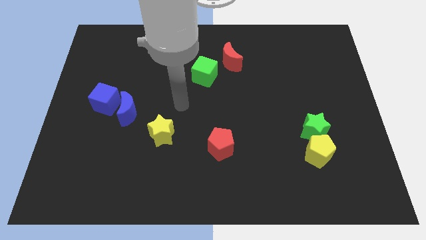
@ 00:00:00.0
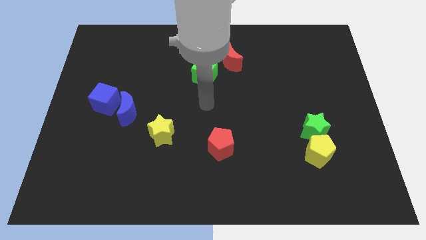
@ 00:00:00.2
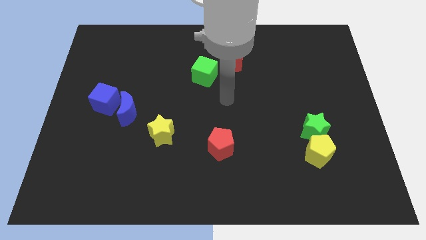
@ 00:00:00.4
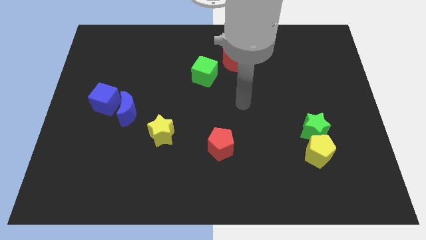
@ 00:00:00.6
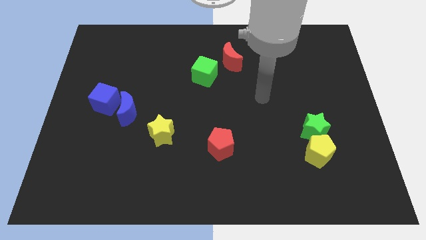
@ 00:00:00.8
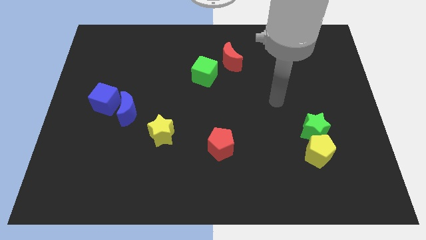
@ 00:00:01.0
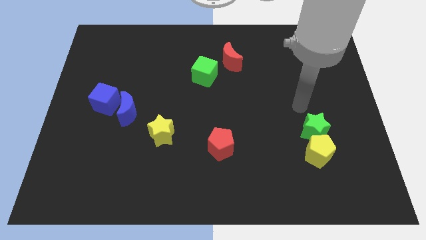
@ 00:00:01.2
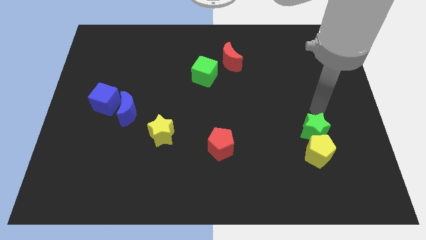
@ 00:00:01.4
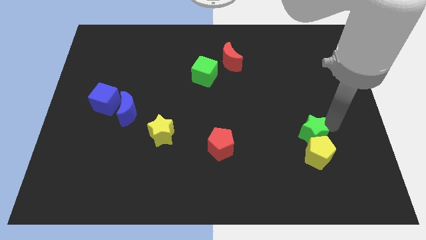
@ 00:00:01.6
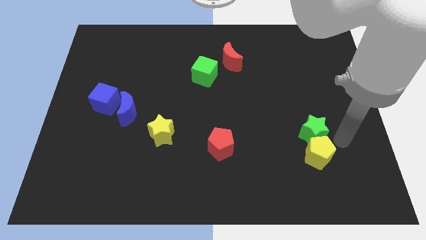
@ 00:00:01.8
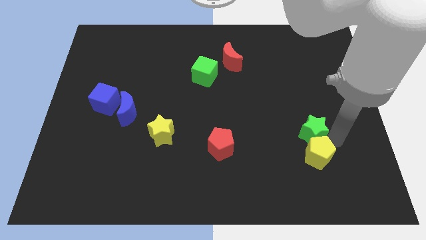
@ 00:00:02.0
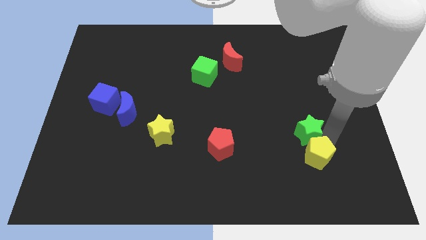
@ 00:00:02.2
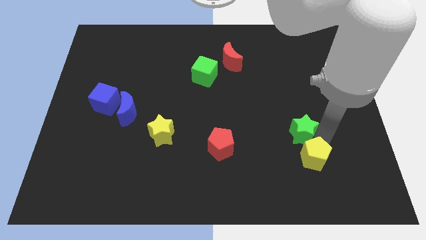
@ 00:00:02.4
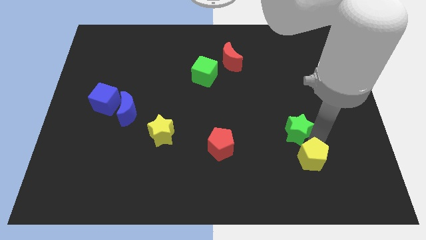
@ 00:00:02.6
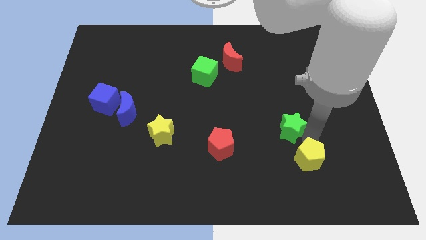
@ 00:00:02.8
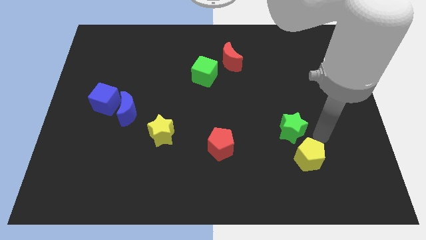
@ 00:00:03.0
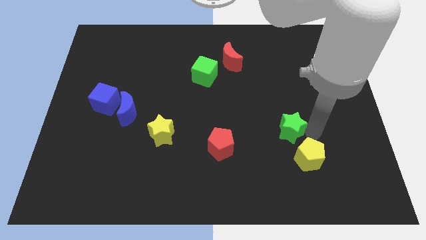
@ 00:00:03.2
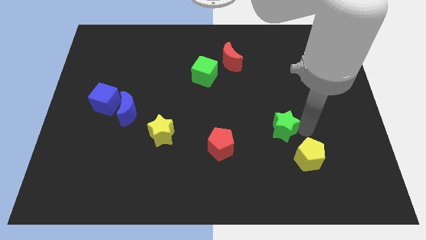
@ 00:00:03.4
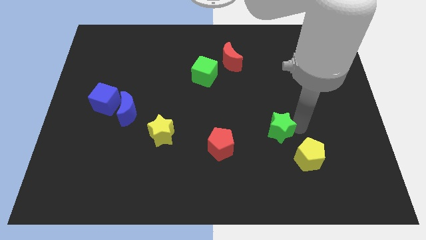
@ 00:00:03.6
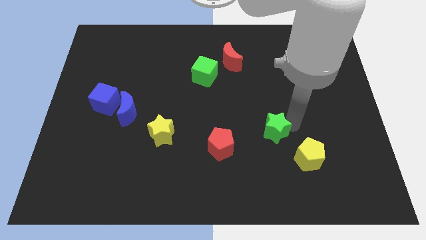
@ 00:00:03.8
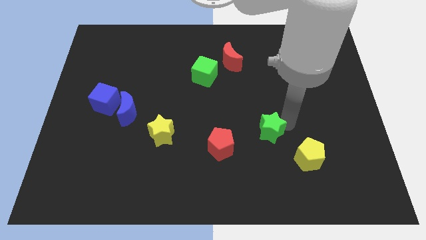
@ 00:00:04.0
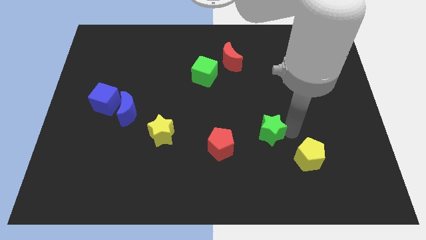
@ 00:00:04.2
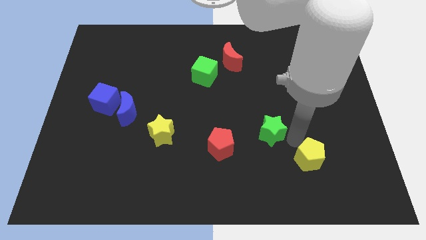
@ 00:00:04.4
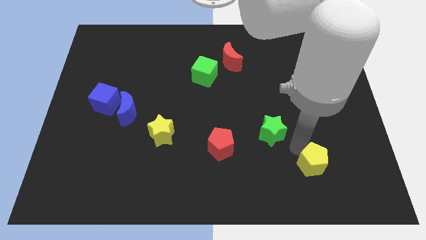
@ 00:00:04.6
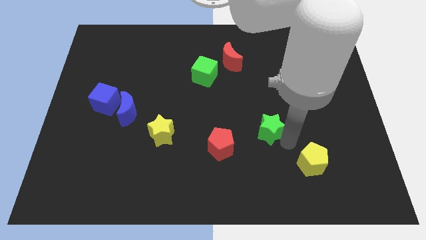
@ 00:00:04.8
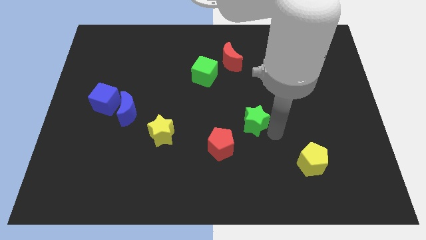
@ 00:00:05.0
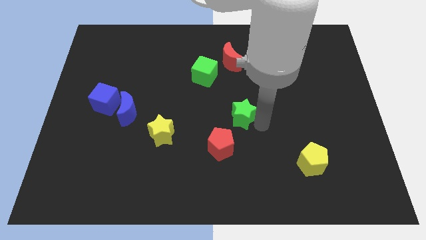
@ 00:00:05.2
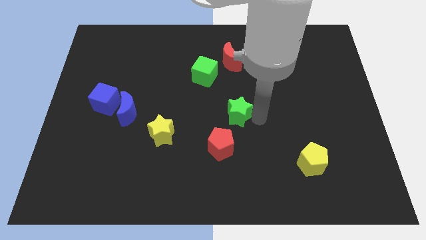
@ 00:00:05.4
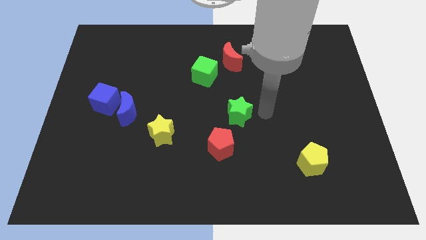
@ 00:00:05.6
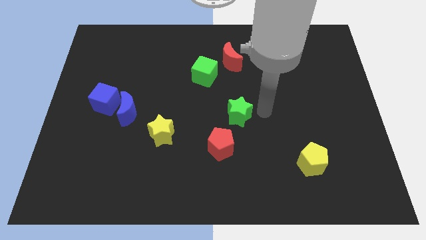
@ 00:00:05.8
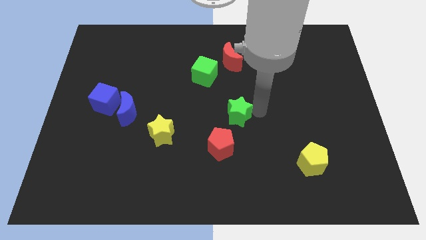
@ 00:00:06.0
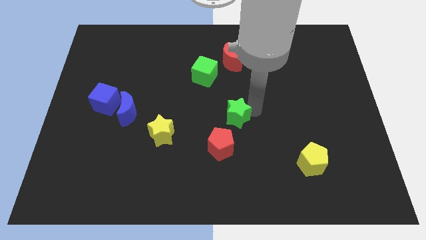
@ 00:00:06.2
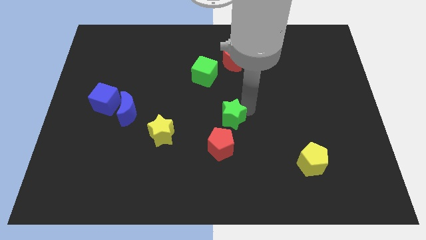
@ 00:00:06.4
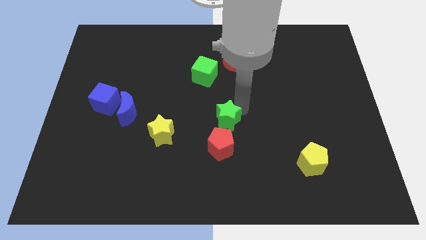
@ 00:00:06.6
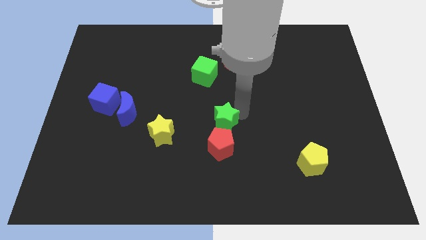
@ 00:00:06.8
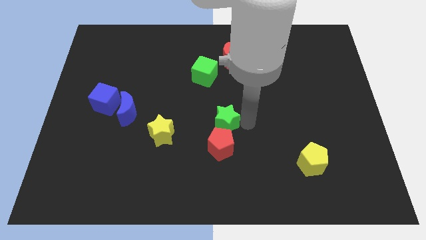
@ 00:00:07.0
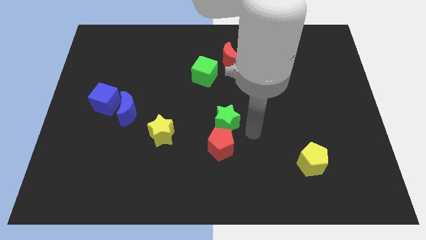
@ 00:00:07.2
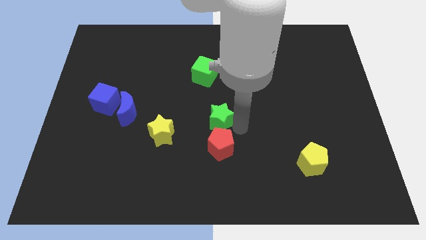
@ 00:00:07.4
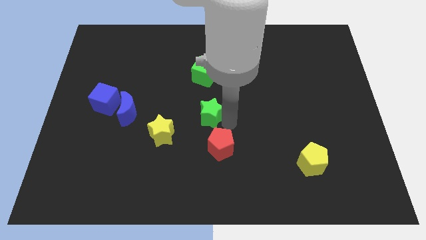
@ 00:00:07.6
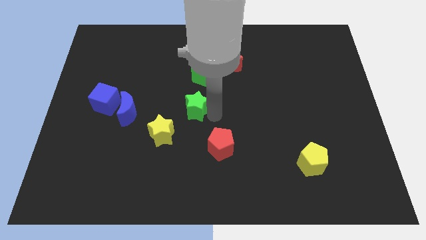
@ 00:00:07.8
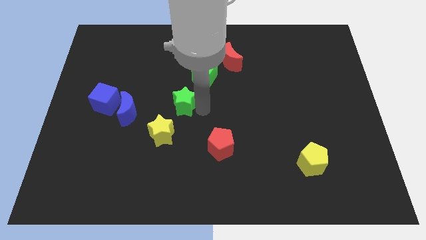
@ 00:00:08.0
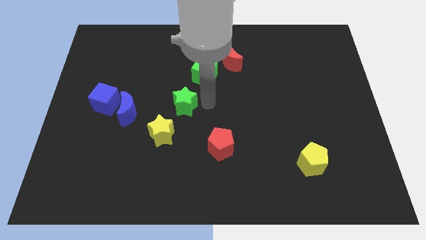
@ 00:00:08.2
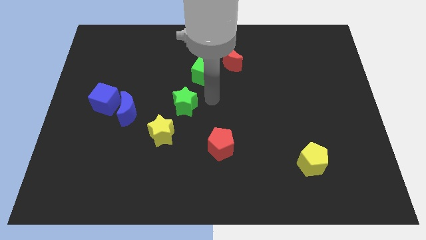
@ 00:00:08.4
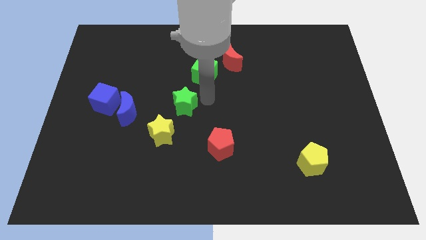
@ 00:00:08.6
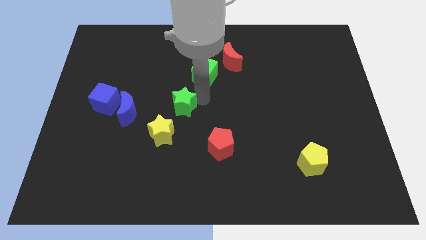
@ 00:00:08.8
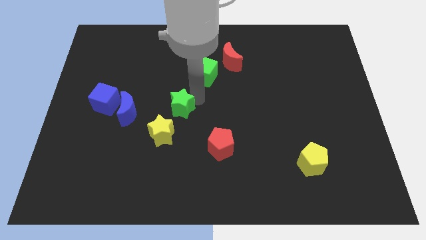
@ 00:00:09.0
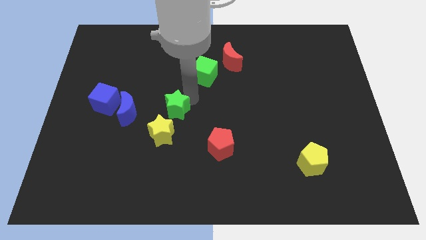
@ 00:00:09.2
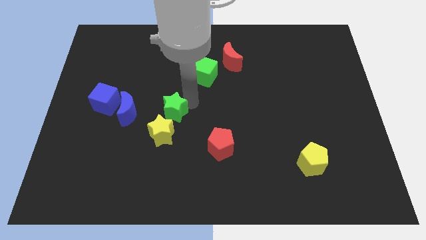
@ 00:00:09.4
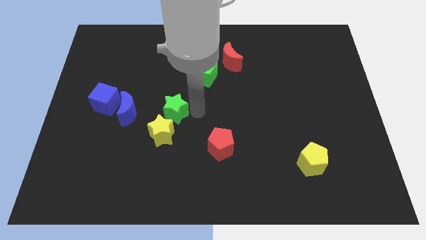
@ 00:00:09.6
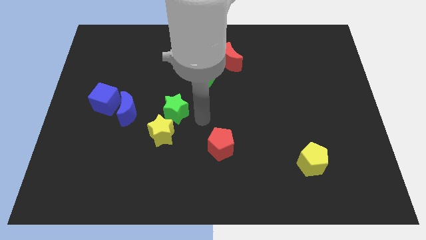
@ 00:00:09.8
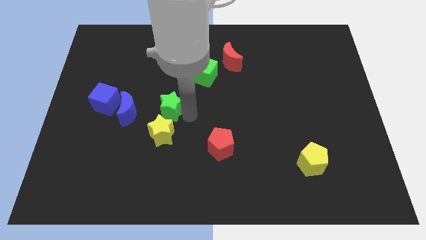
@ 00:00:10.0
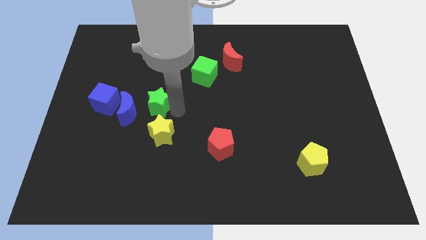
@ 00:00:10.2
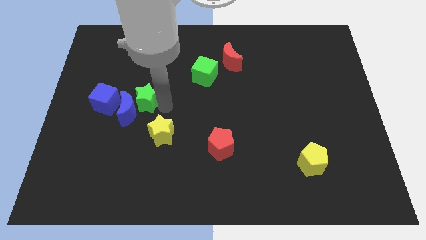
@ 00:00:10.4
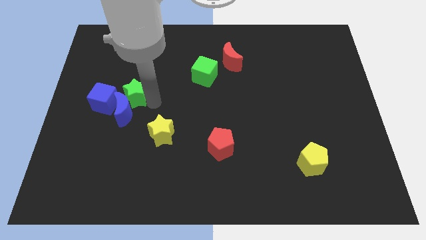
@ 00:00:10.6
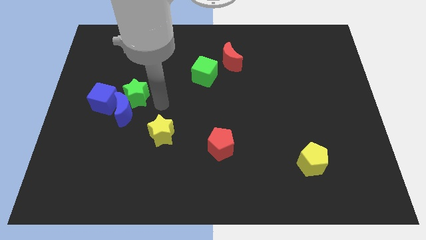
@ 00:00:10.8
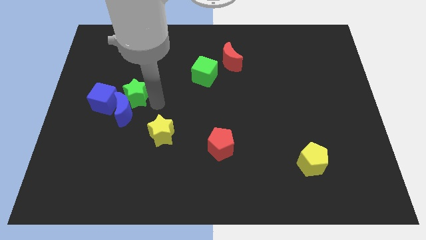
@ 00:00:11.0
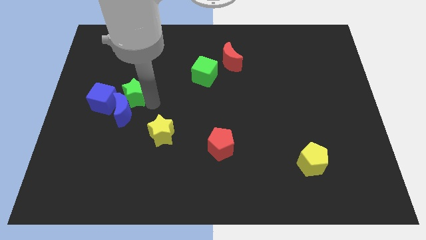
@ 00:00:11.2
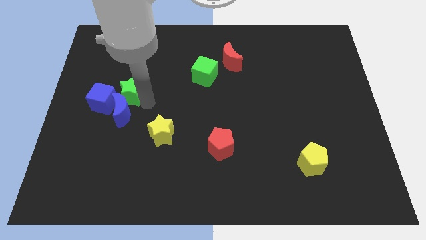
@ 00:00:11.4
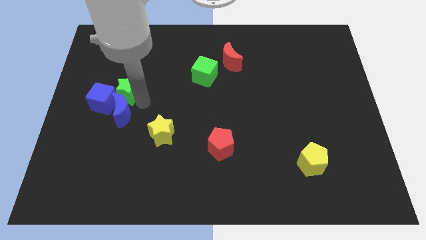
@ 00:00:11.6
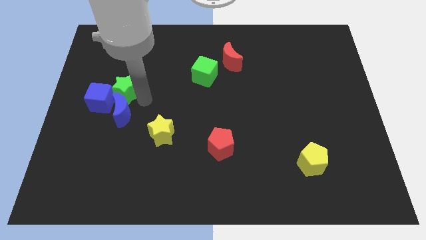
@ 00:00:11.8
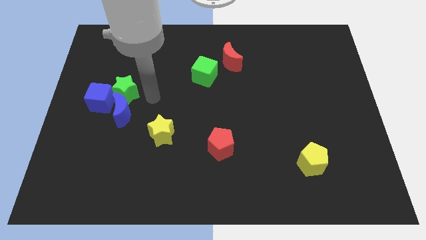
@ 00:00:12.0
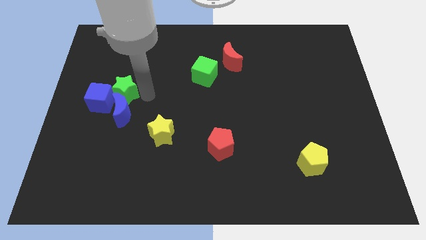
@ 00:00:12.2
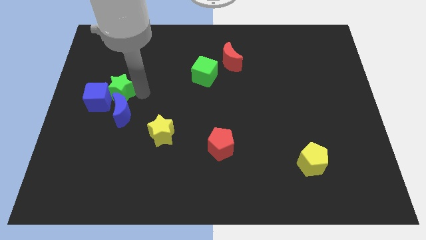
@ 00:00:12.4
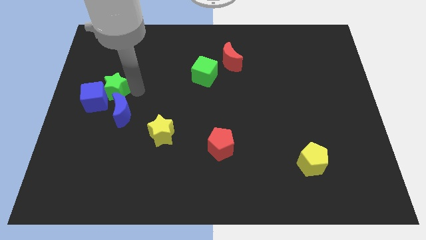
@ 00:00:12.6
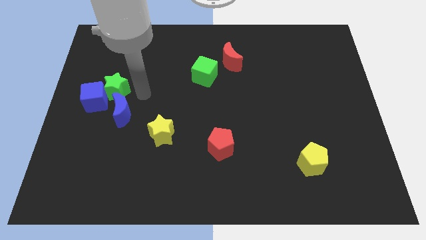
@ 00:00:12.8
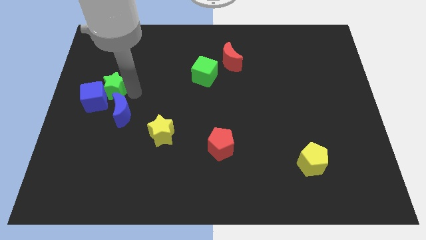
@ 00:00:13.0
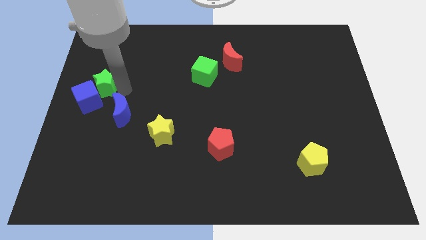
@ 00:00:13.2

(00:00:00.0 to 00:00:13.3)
slide the green star to the left side of the board

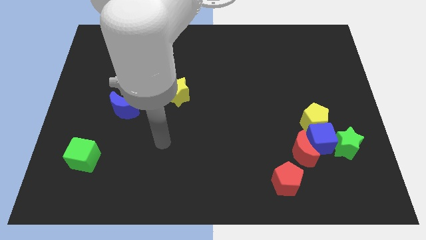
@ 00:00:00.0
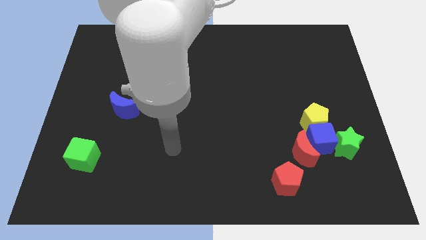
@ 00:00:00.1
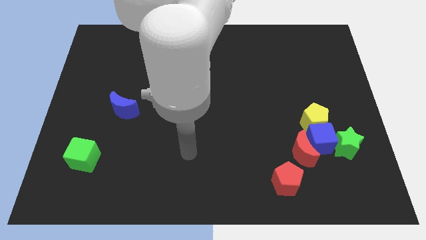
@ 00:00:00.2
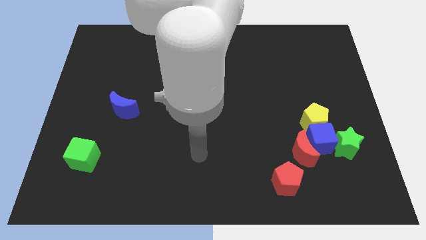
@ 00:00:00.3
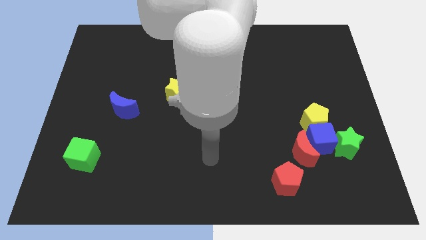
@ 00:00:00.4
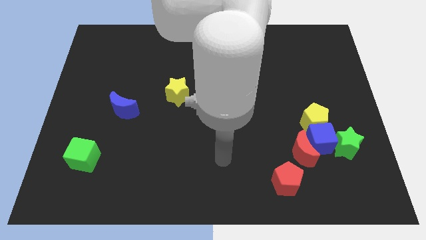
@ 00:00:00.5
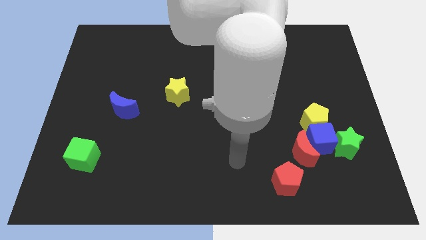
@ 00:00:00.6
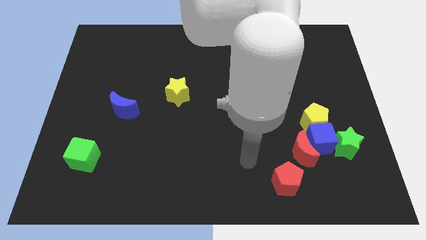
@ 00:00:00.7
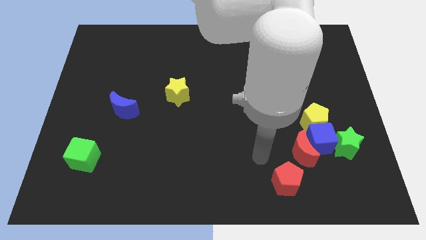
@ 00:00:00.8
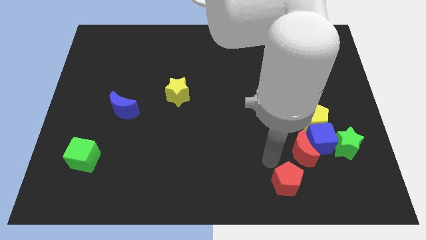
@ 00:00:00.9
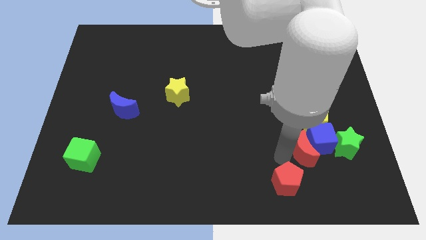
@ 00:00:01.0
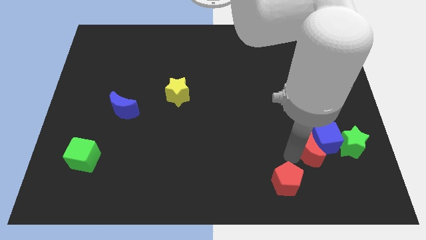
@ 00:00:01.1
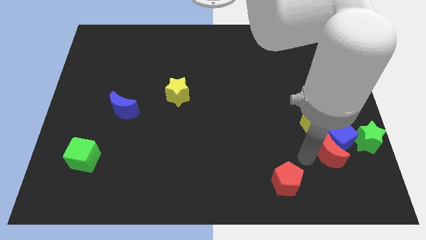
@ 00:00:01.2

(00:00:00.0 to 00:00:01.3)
move the green star to the right side
